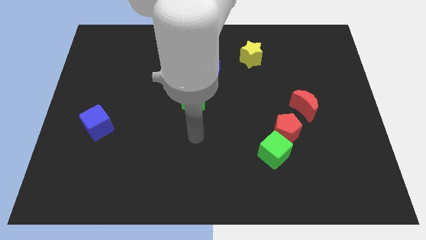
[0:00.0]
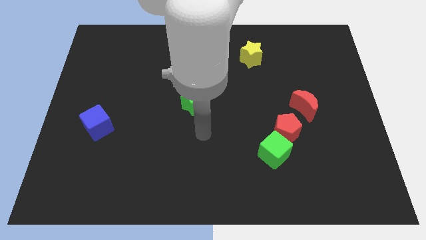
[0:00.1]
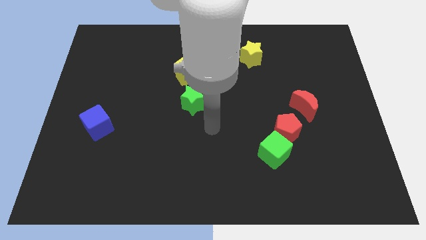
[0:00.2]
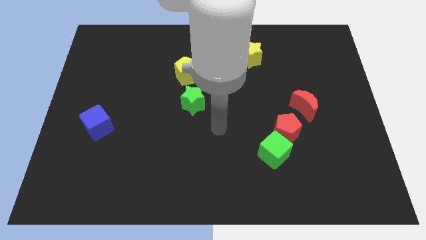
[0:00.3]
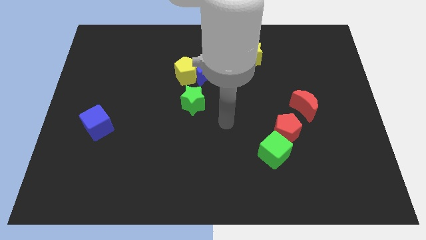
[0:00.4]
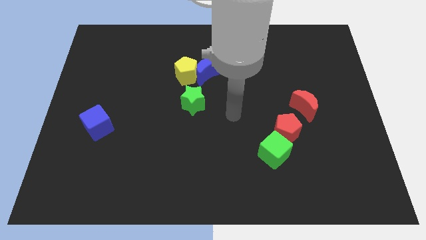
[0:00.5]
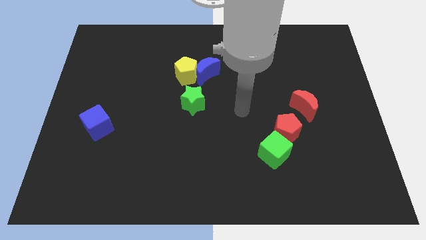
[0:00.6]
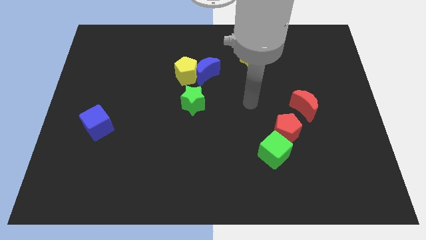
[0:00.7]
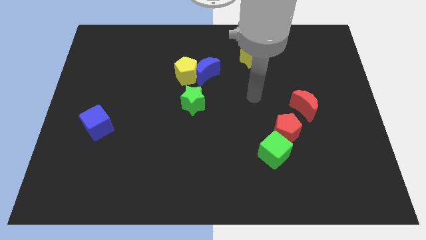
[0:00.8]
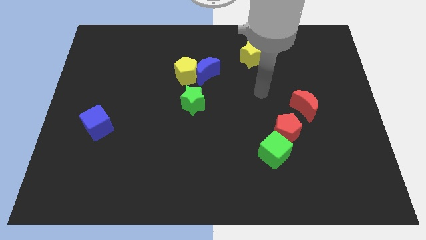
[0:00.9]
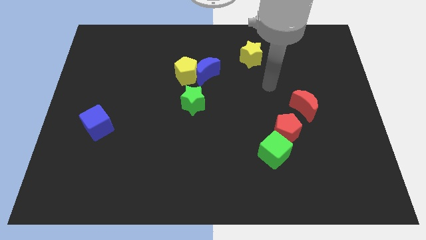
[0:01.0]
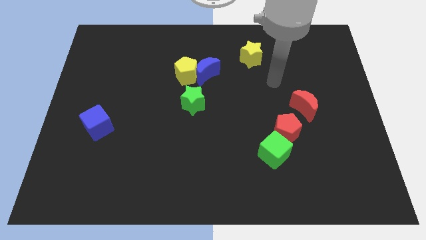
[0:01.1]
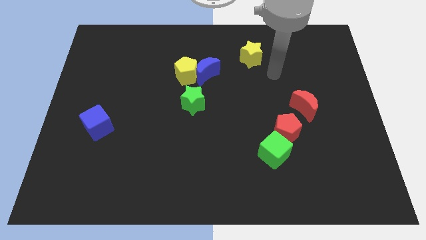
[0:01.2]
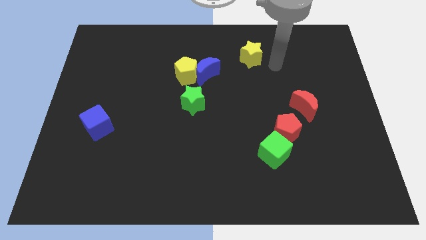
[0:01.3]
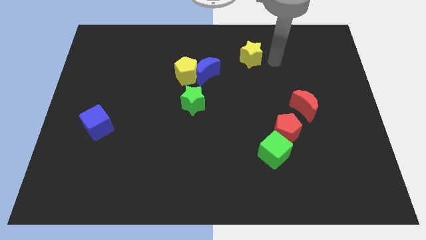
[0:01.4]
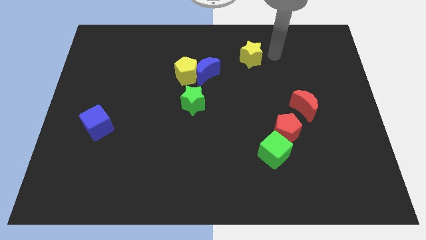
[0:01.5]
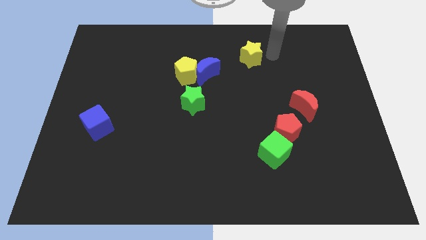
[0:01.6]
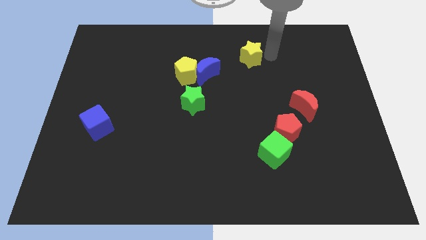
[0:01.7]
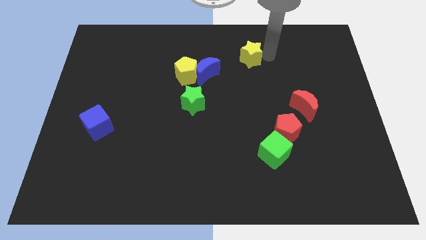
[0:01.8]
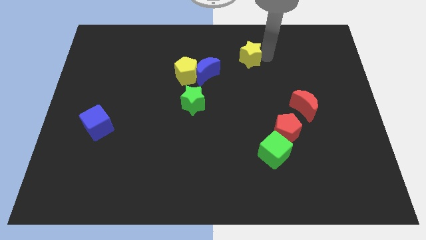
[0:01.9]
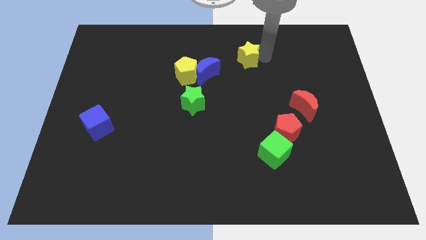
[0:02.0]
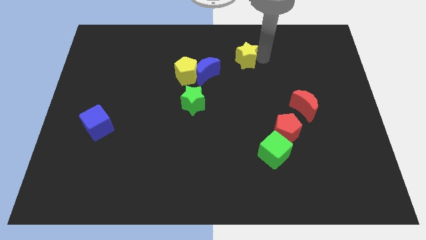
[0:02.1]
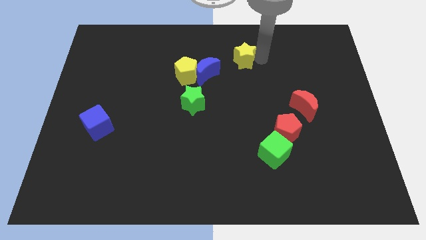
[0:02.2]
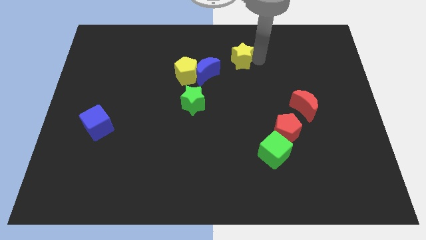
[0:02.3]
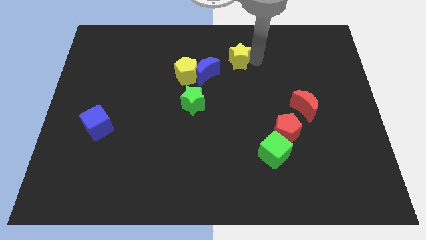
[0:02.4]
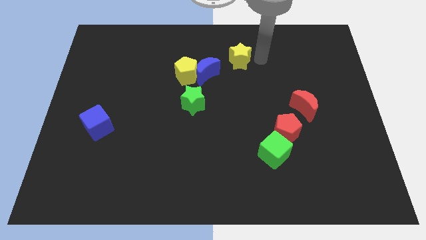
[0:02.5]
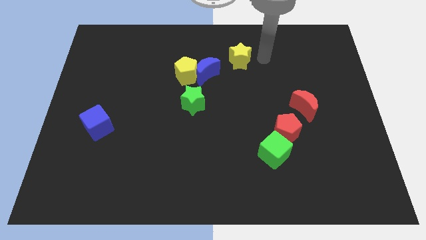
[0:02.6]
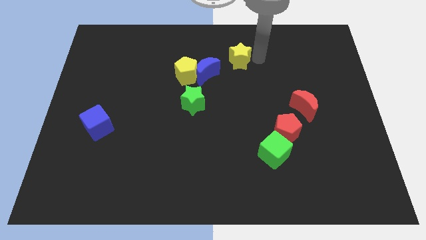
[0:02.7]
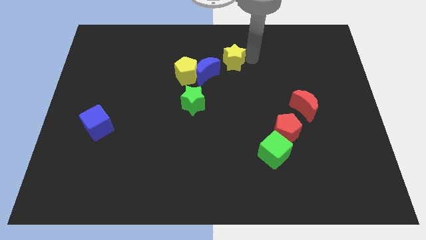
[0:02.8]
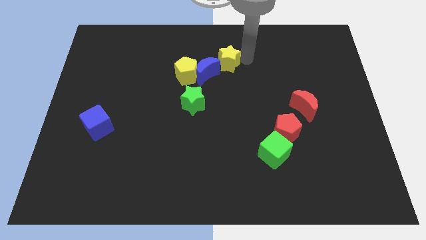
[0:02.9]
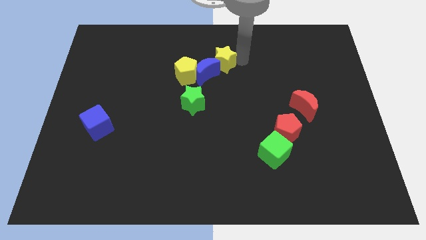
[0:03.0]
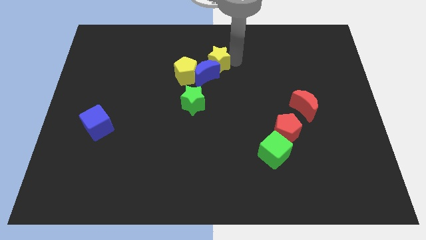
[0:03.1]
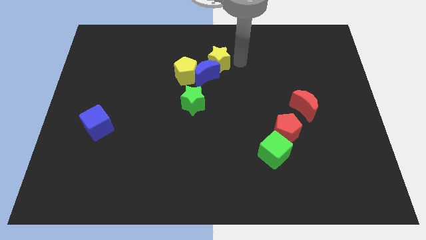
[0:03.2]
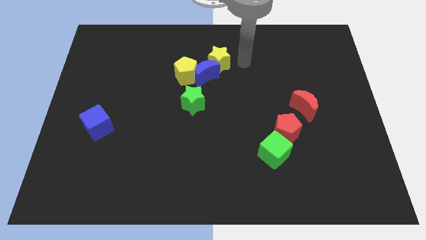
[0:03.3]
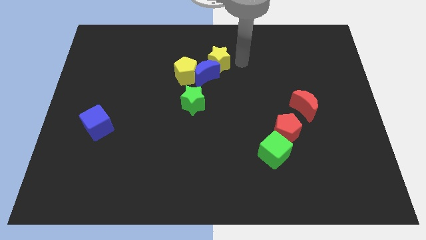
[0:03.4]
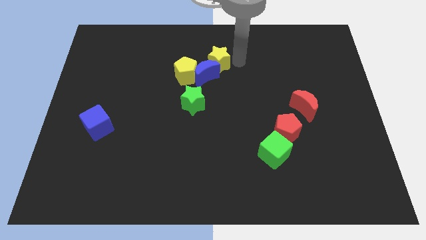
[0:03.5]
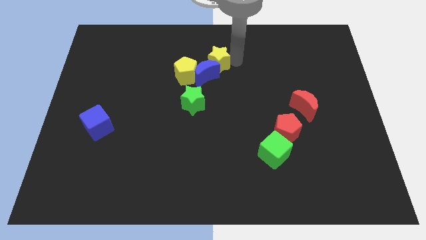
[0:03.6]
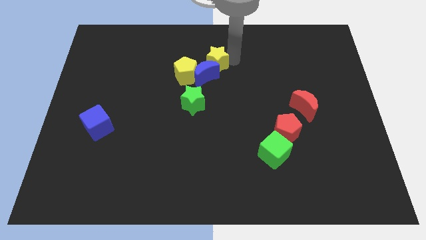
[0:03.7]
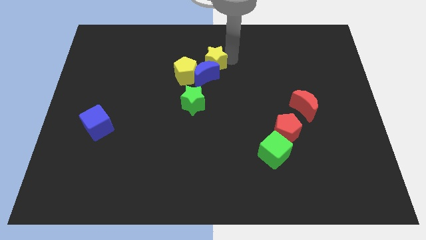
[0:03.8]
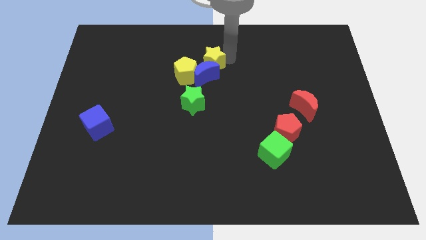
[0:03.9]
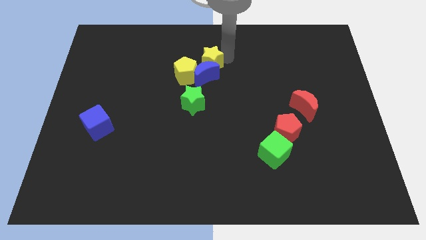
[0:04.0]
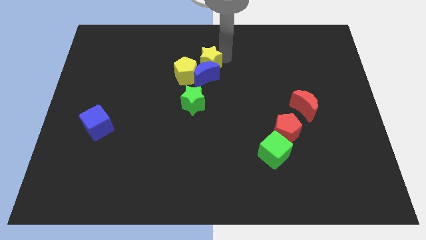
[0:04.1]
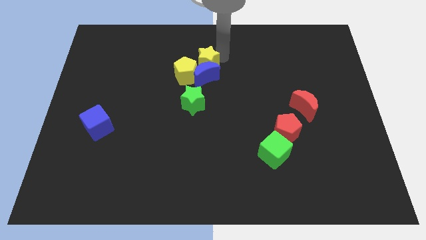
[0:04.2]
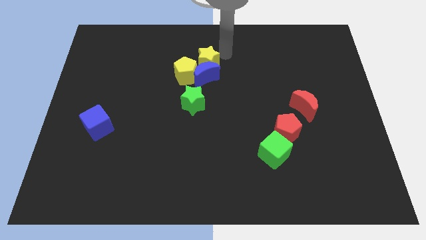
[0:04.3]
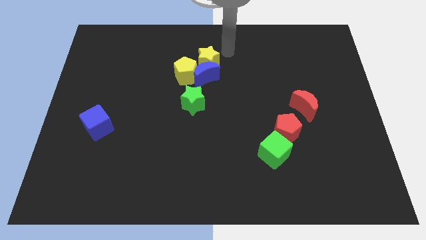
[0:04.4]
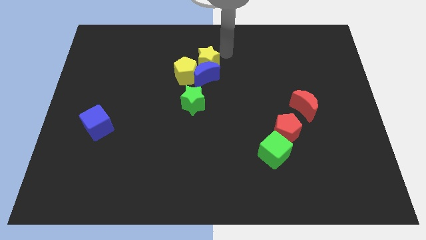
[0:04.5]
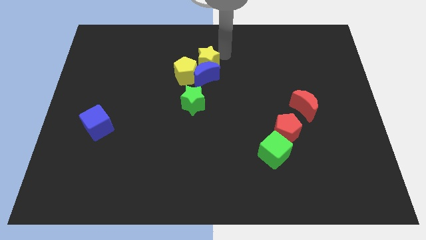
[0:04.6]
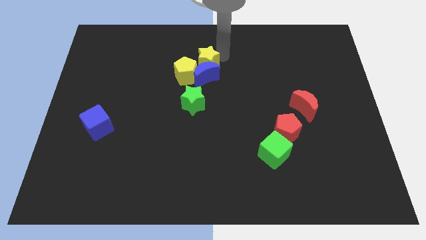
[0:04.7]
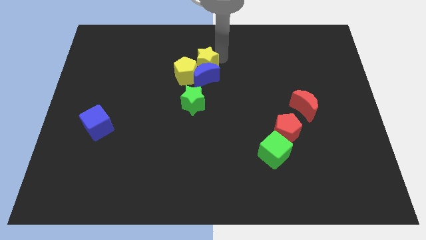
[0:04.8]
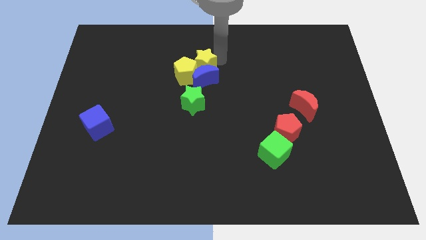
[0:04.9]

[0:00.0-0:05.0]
slide the yellow star next to the yellow pentagon

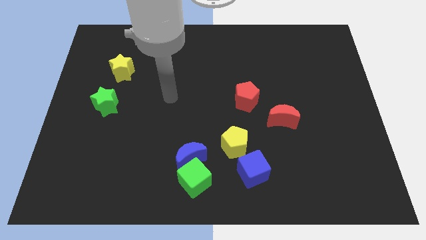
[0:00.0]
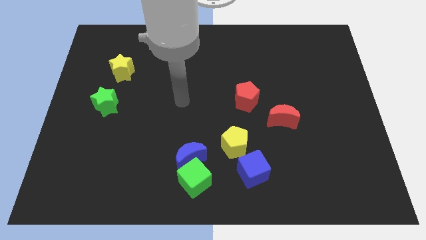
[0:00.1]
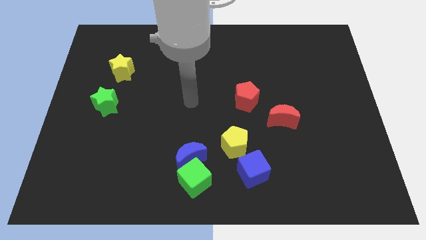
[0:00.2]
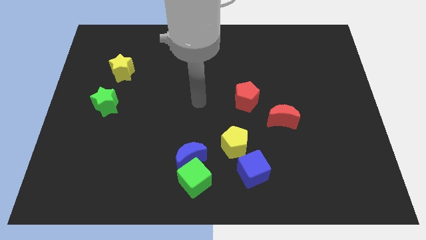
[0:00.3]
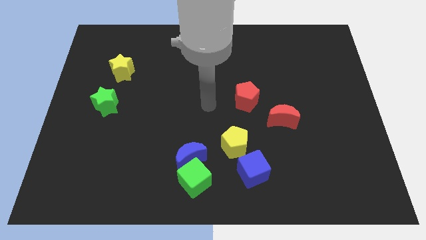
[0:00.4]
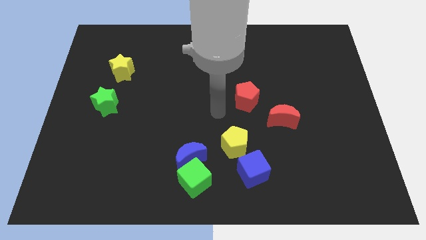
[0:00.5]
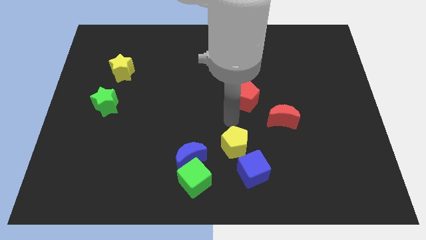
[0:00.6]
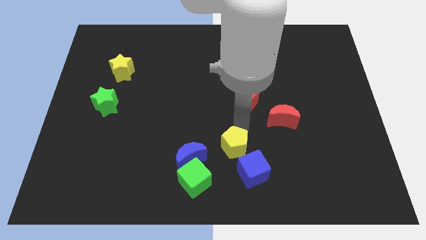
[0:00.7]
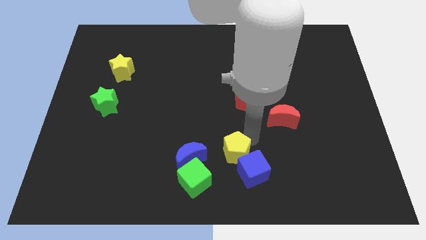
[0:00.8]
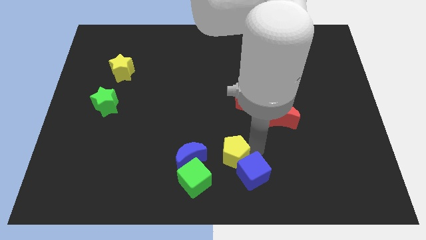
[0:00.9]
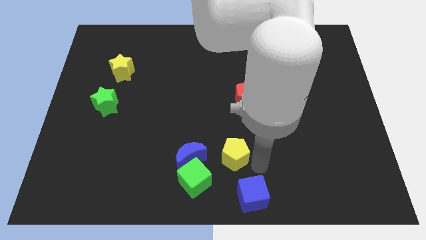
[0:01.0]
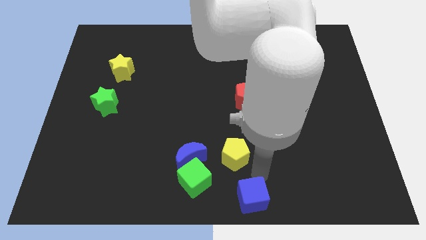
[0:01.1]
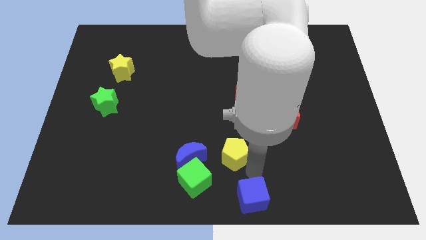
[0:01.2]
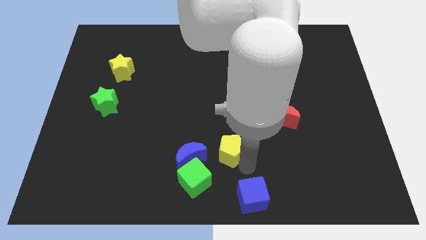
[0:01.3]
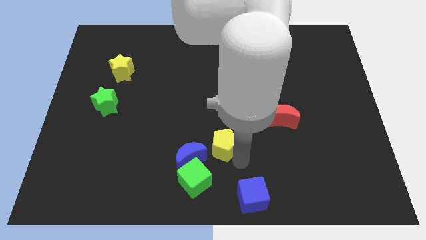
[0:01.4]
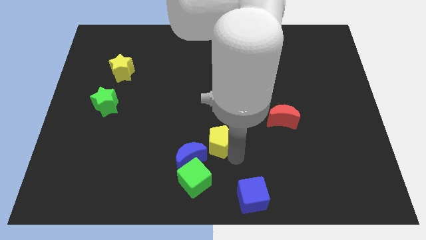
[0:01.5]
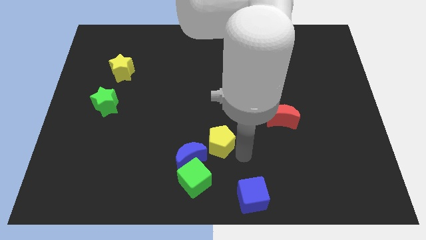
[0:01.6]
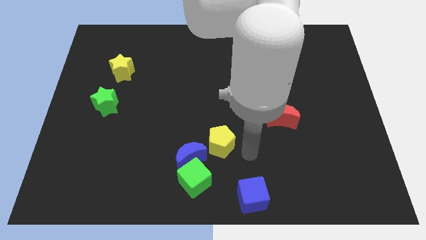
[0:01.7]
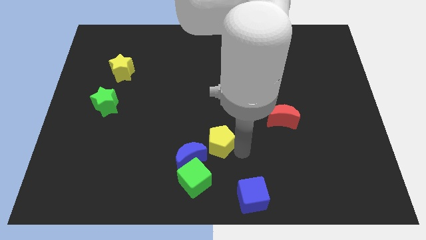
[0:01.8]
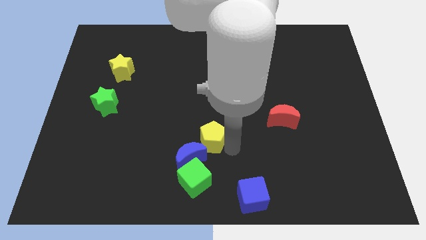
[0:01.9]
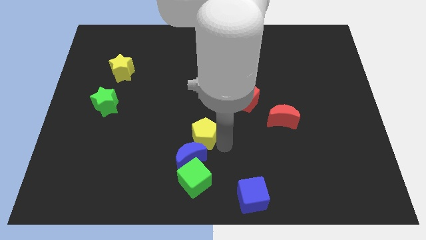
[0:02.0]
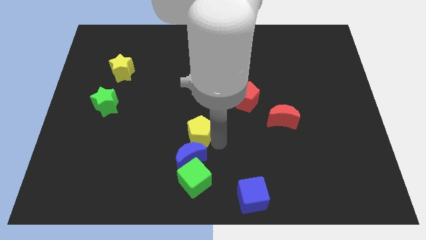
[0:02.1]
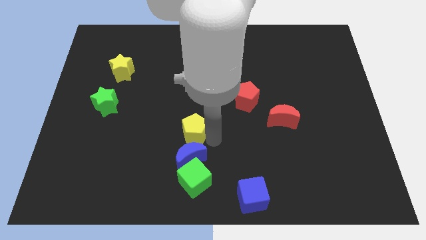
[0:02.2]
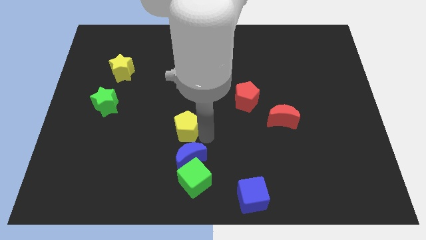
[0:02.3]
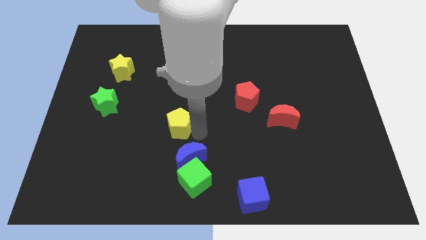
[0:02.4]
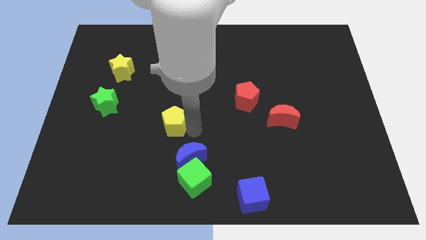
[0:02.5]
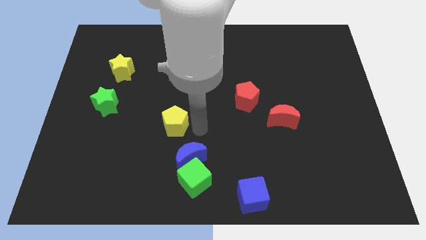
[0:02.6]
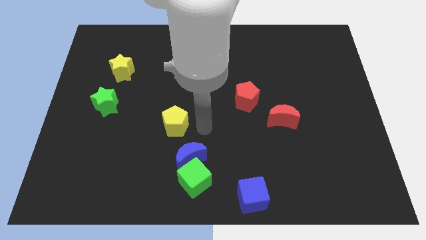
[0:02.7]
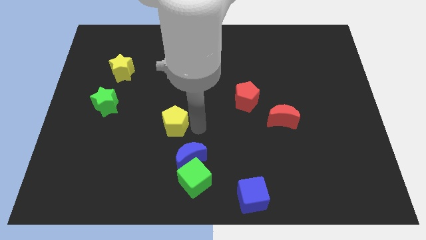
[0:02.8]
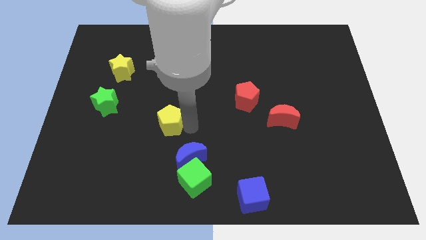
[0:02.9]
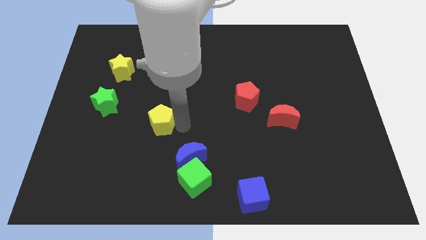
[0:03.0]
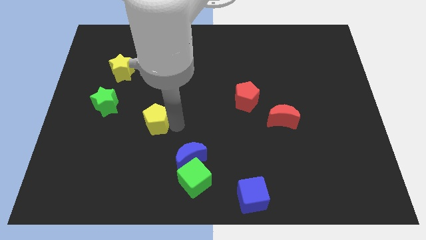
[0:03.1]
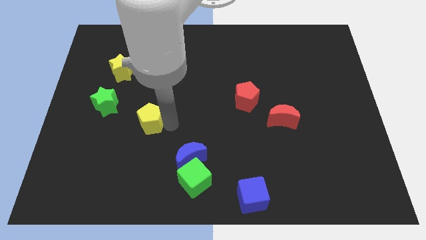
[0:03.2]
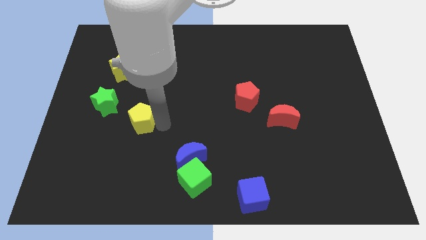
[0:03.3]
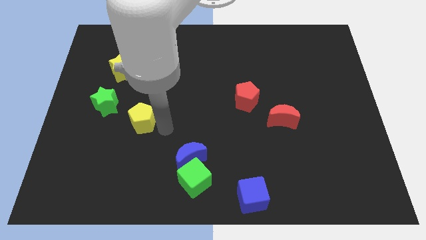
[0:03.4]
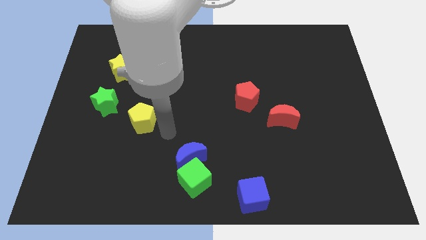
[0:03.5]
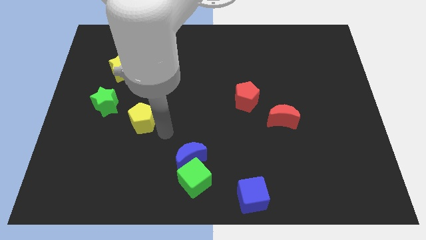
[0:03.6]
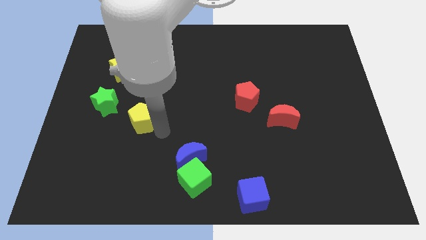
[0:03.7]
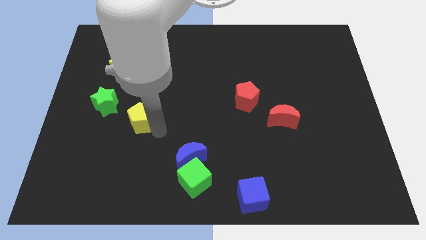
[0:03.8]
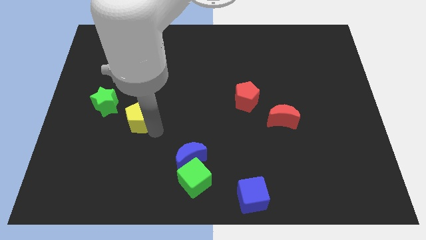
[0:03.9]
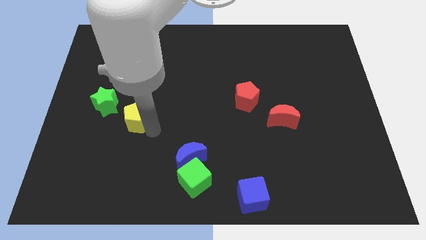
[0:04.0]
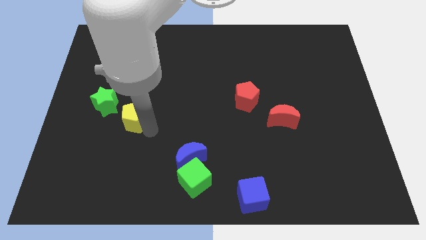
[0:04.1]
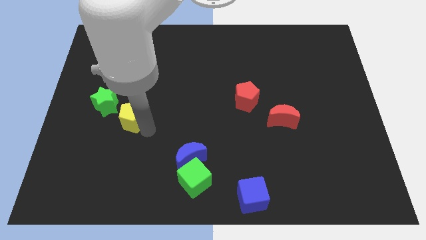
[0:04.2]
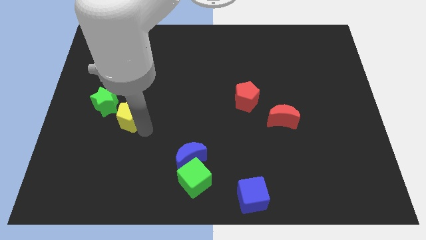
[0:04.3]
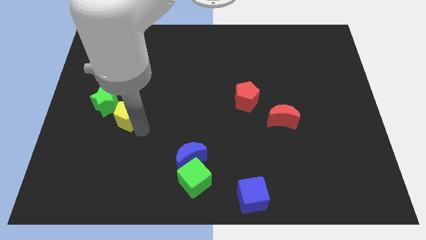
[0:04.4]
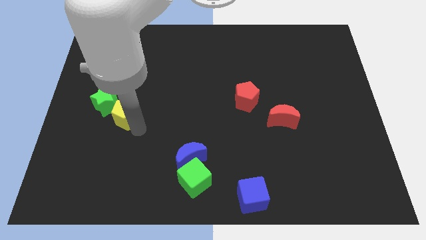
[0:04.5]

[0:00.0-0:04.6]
move the yellow pentagon close to the green star
